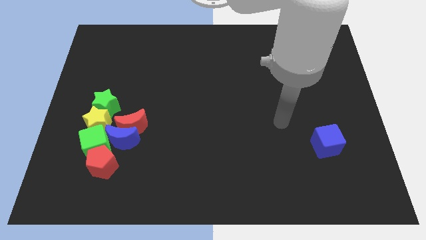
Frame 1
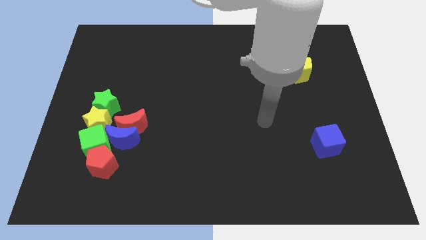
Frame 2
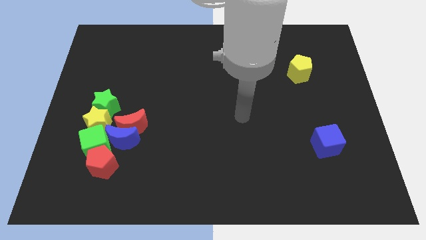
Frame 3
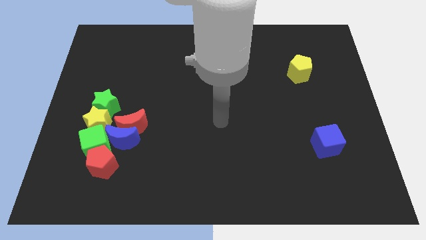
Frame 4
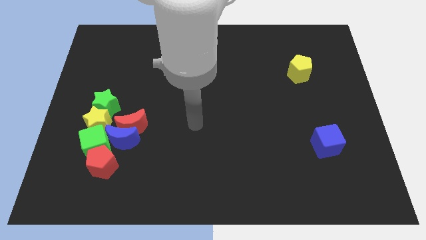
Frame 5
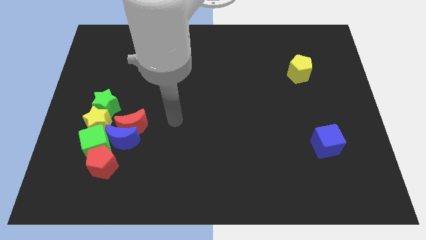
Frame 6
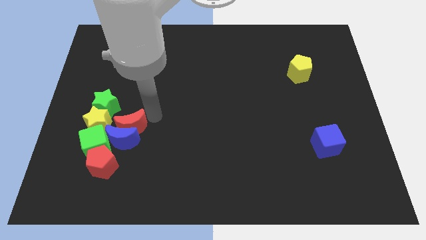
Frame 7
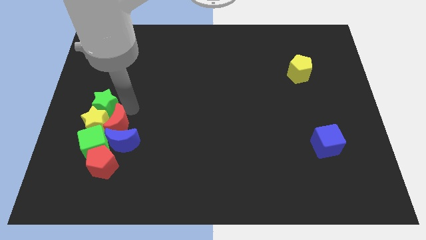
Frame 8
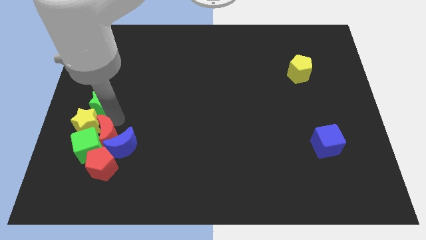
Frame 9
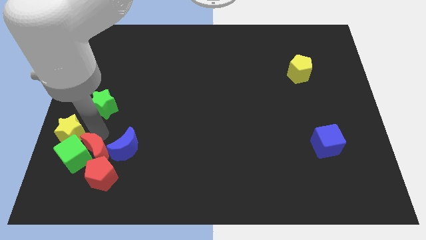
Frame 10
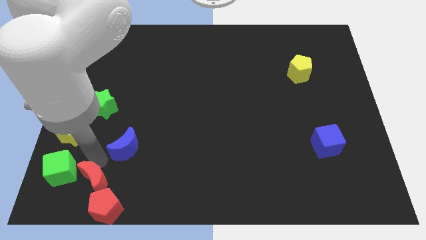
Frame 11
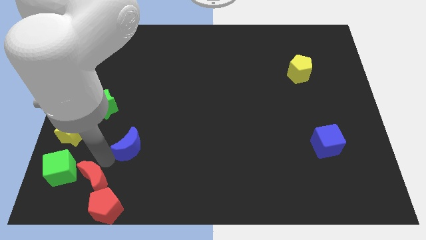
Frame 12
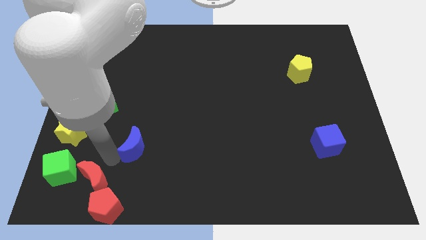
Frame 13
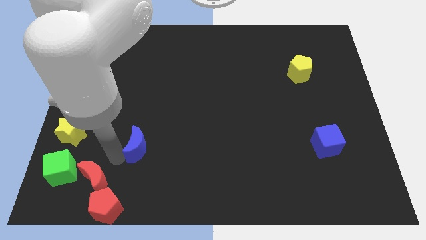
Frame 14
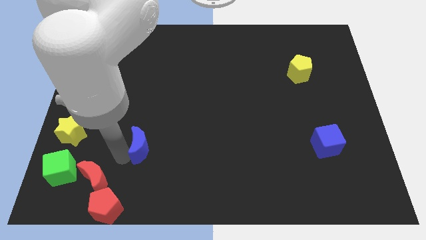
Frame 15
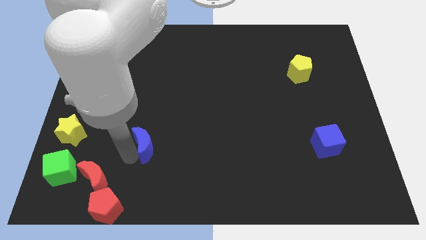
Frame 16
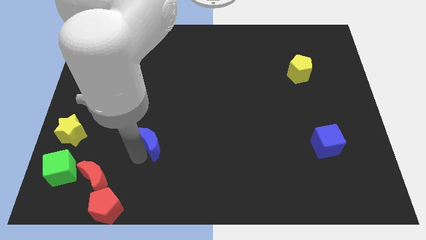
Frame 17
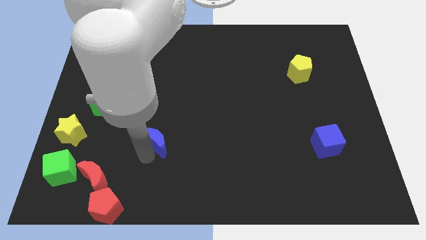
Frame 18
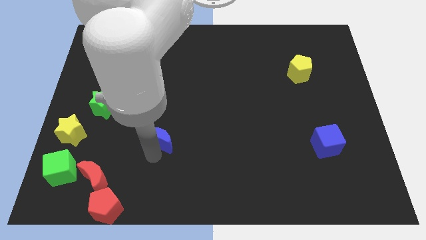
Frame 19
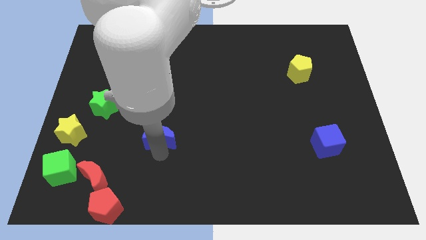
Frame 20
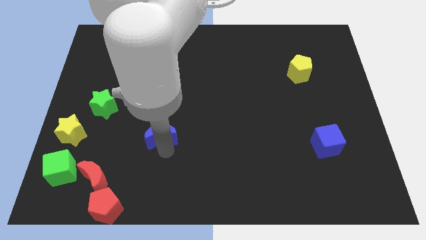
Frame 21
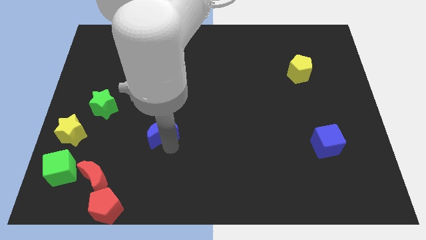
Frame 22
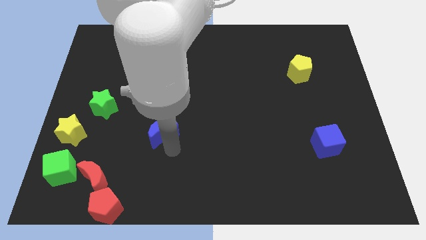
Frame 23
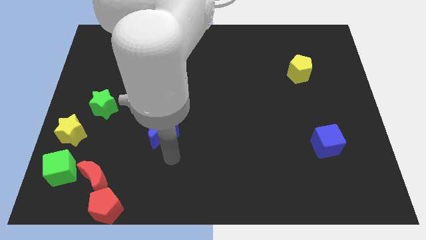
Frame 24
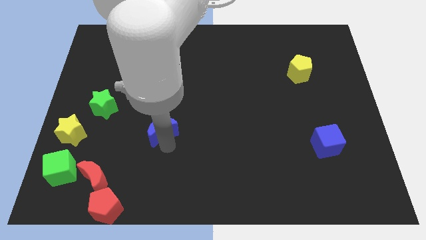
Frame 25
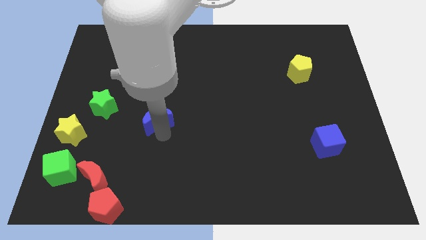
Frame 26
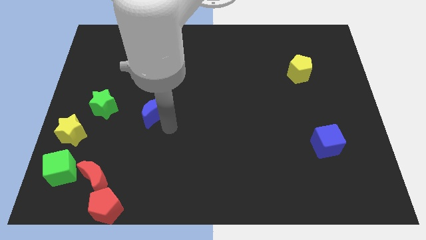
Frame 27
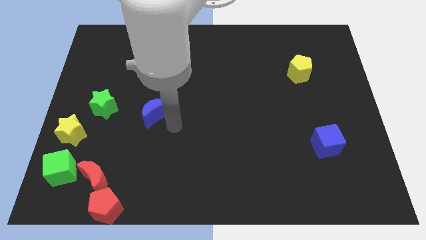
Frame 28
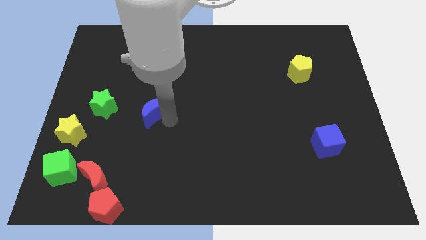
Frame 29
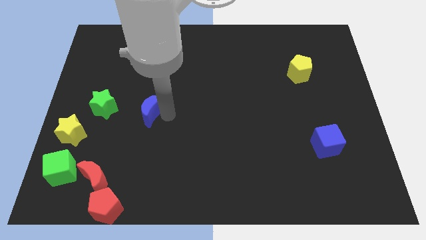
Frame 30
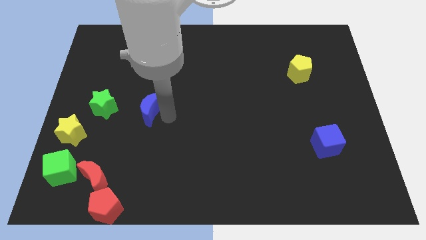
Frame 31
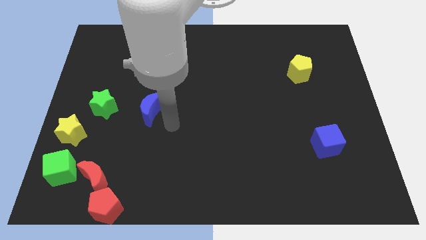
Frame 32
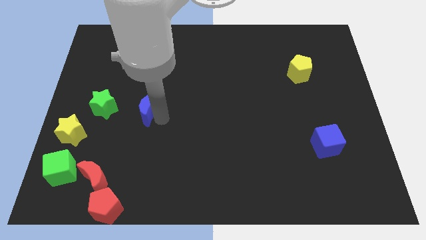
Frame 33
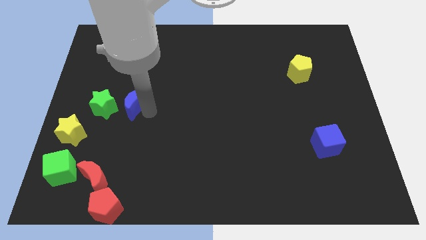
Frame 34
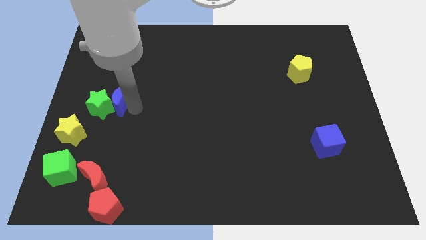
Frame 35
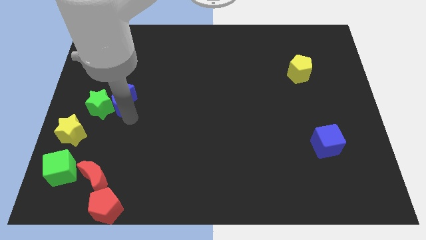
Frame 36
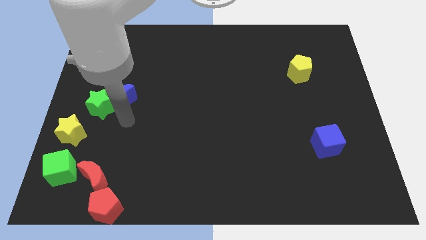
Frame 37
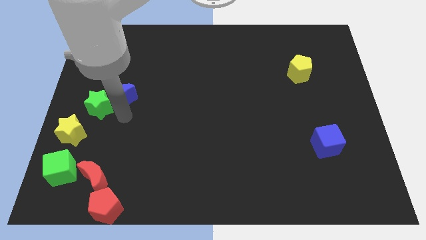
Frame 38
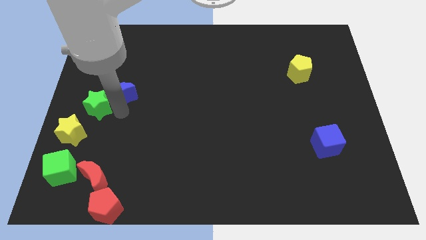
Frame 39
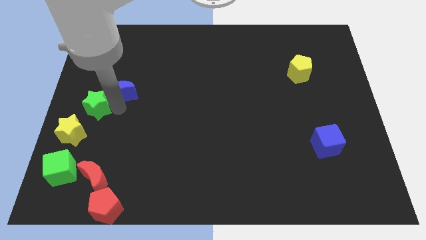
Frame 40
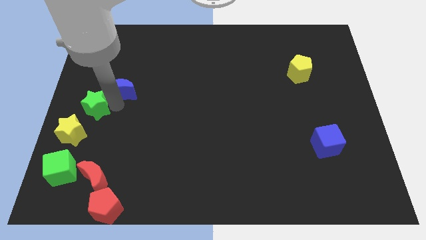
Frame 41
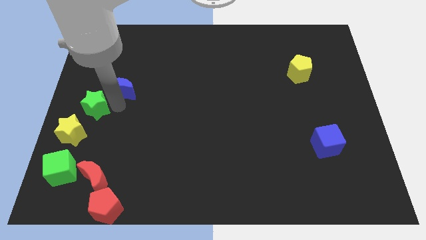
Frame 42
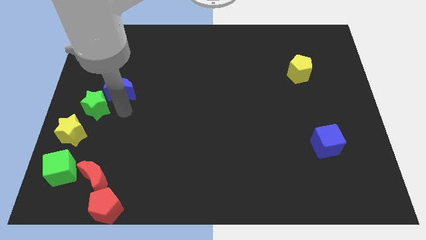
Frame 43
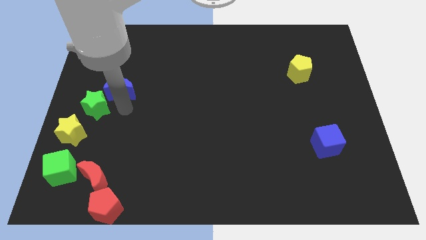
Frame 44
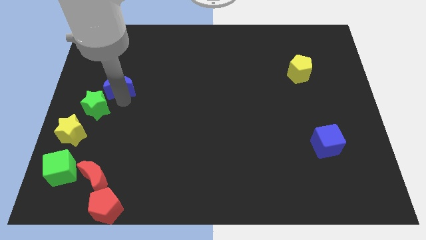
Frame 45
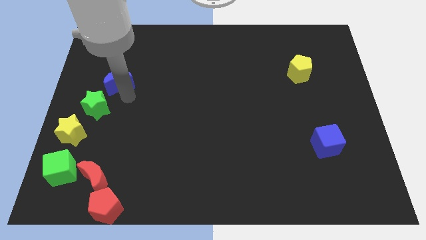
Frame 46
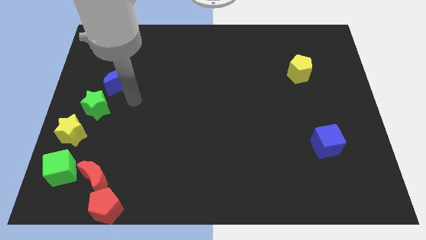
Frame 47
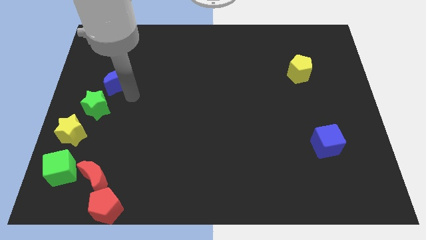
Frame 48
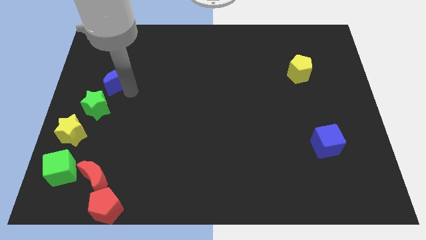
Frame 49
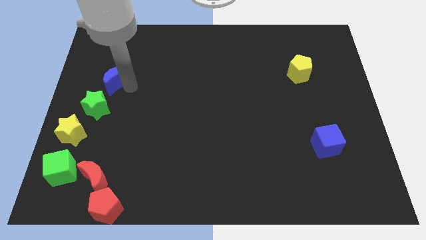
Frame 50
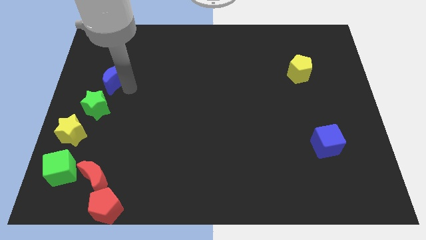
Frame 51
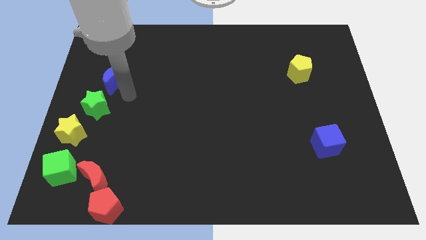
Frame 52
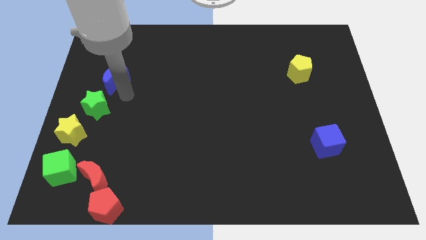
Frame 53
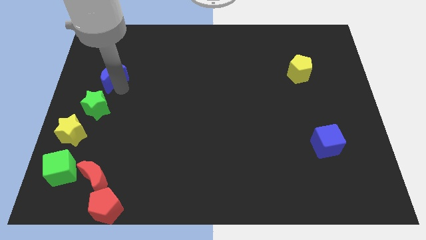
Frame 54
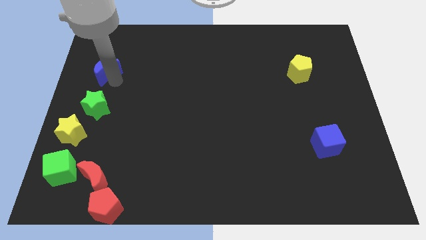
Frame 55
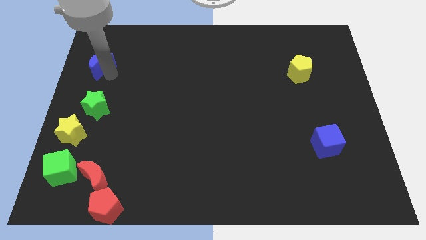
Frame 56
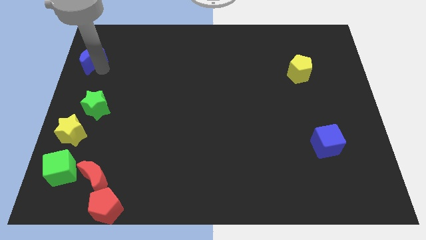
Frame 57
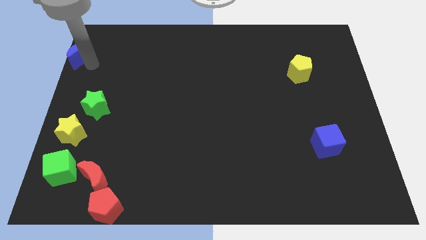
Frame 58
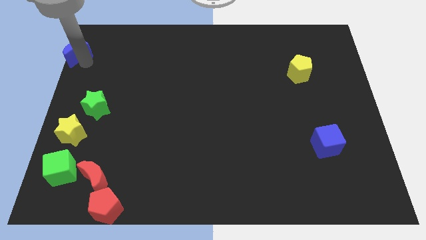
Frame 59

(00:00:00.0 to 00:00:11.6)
push the blue moon to the top left of the board

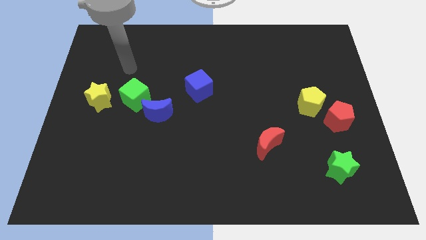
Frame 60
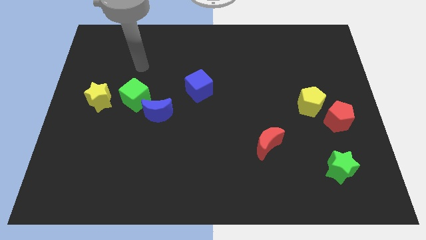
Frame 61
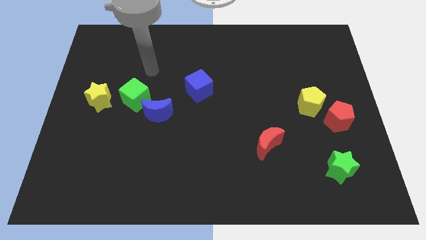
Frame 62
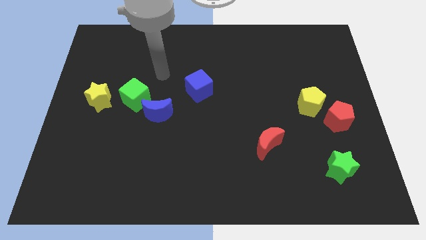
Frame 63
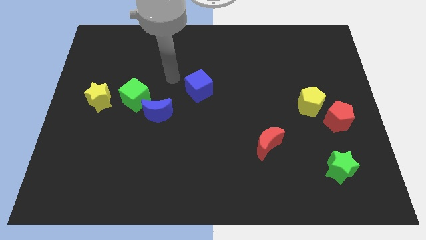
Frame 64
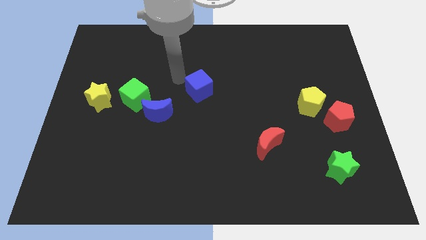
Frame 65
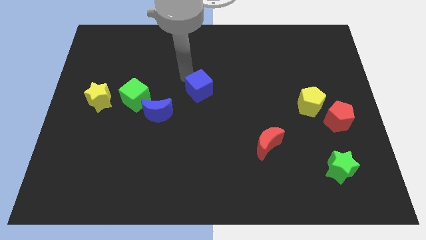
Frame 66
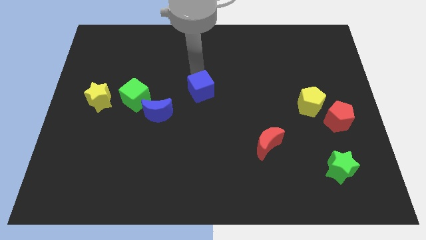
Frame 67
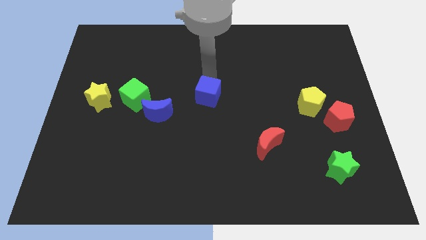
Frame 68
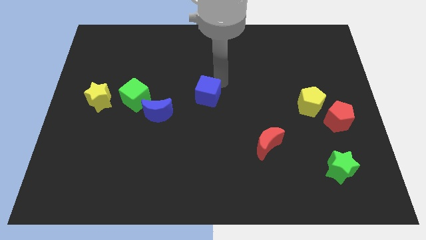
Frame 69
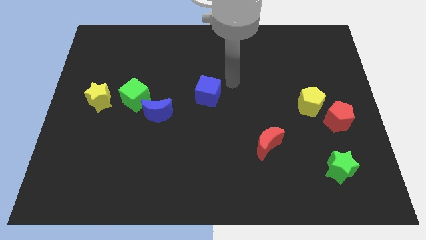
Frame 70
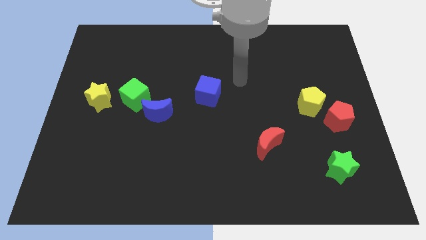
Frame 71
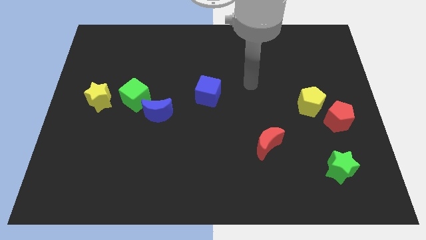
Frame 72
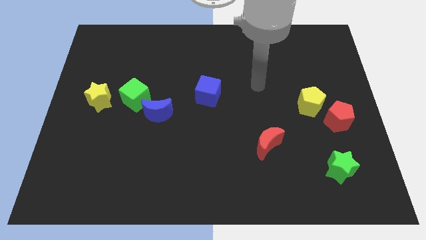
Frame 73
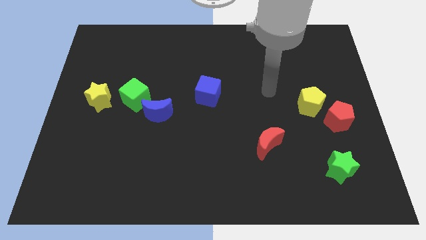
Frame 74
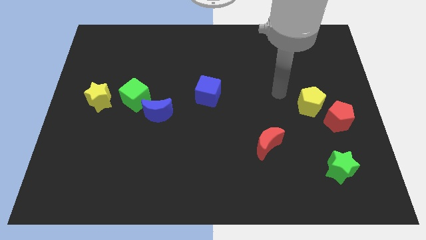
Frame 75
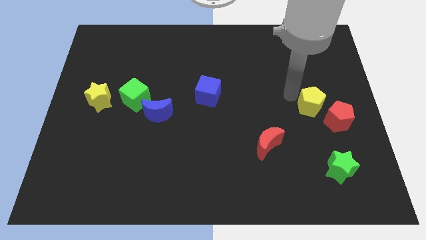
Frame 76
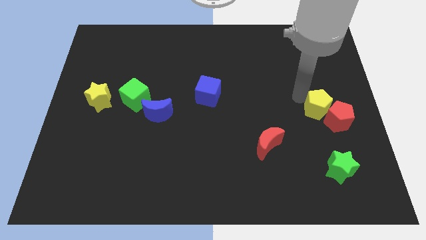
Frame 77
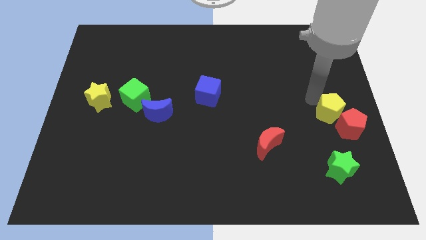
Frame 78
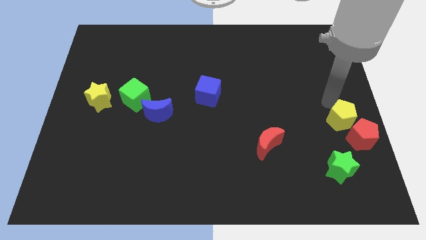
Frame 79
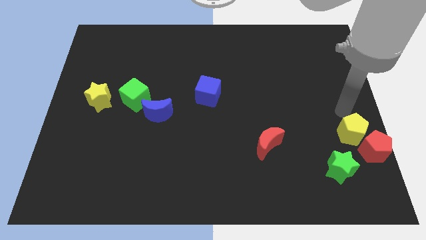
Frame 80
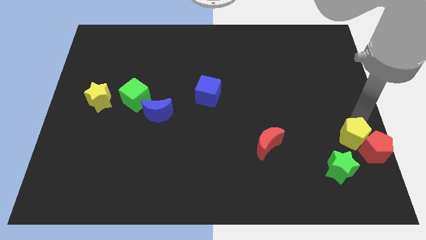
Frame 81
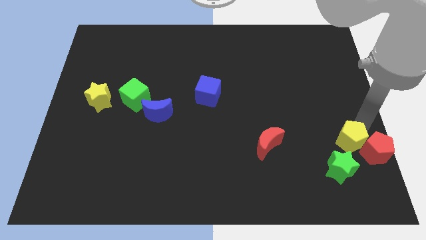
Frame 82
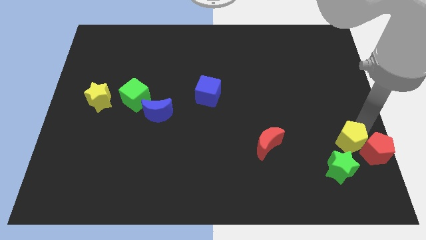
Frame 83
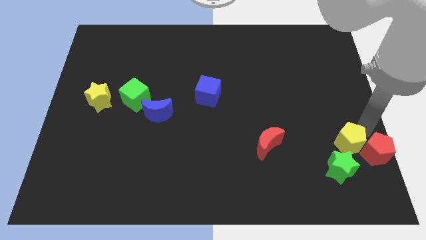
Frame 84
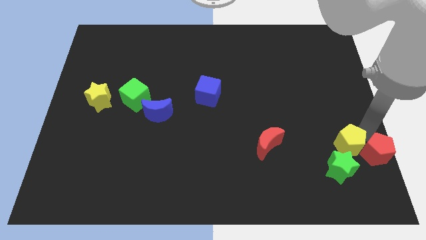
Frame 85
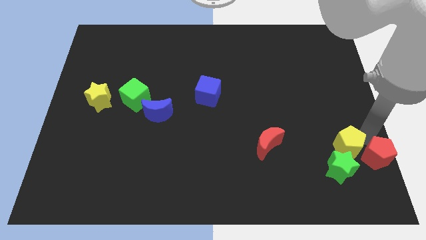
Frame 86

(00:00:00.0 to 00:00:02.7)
put the red pentagon to the bottom right
